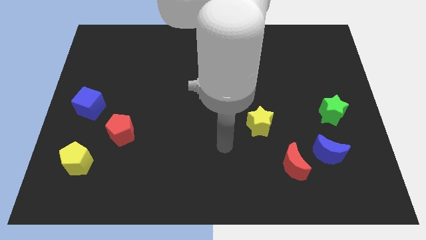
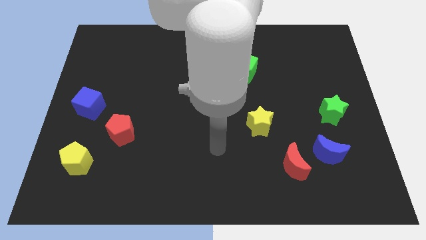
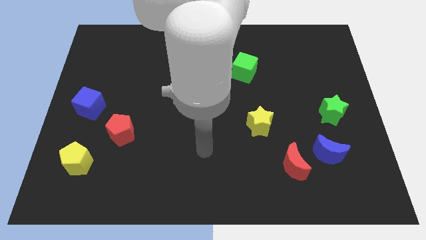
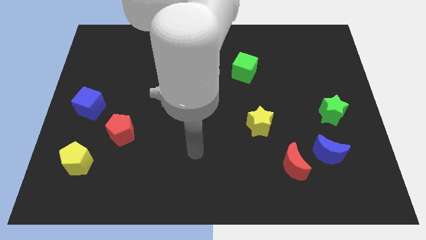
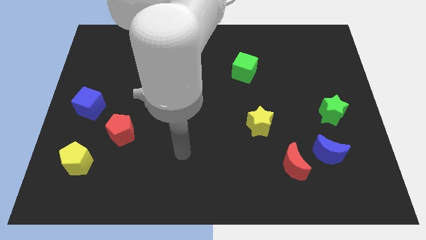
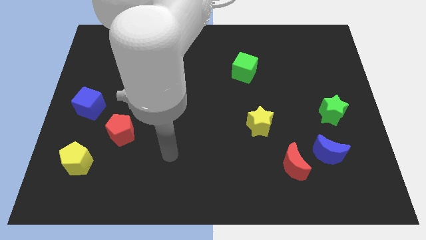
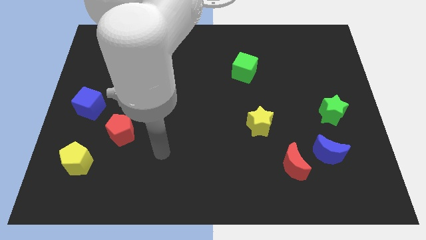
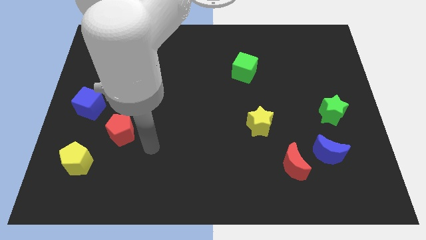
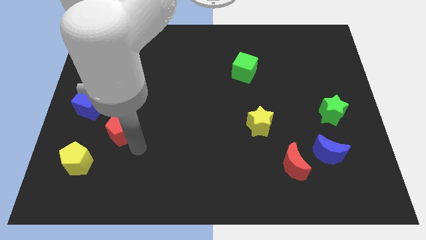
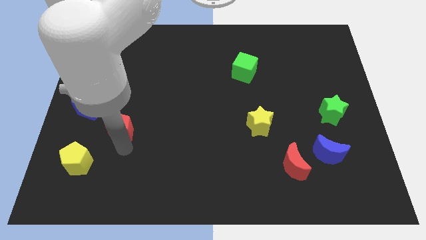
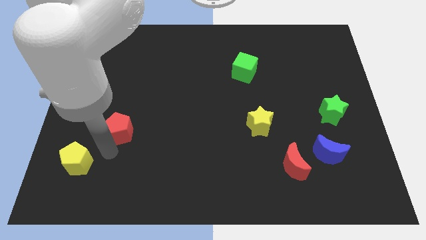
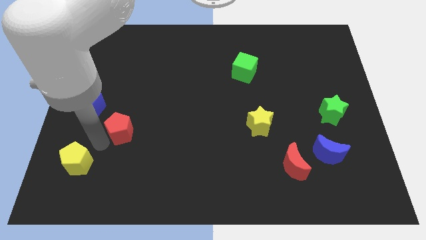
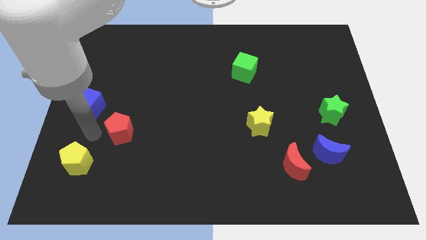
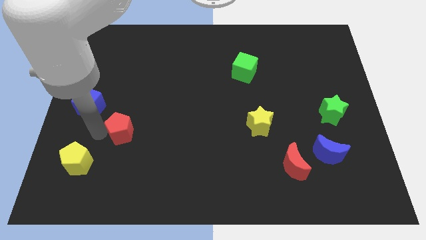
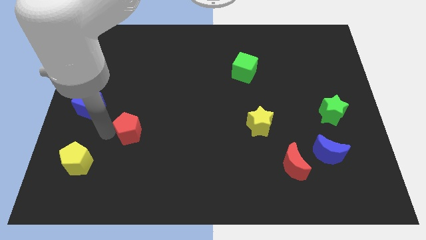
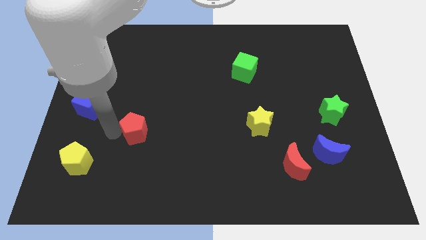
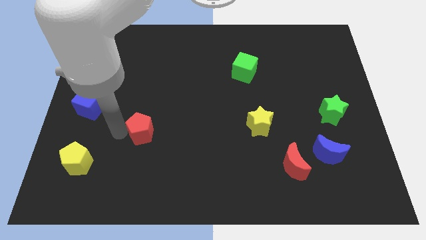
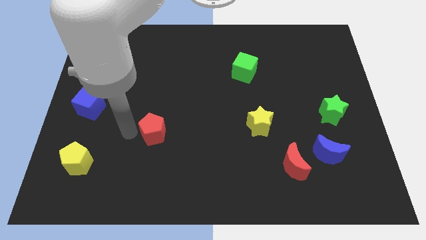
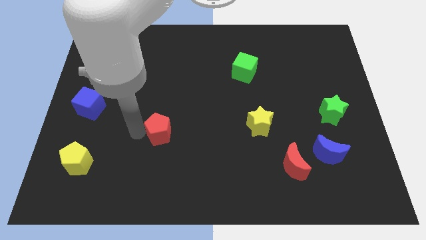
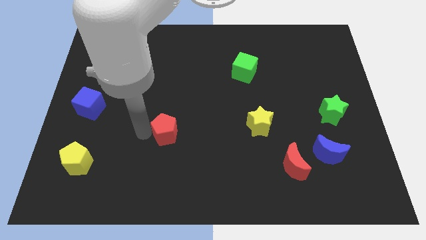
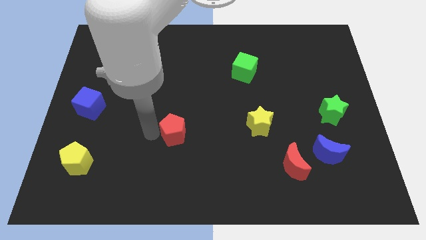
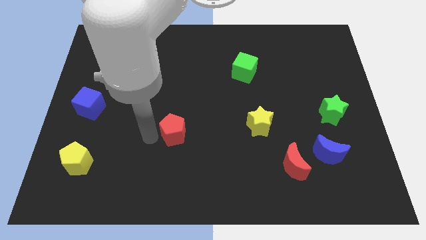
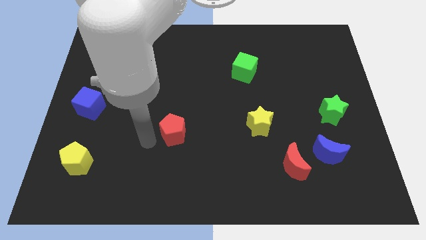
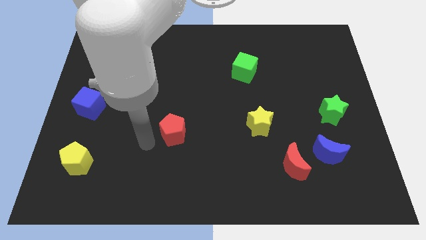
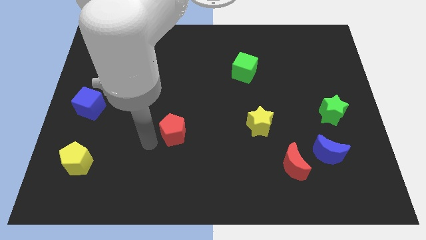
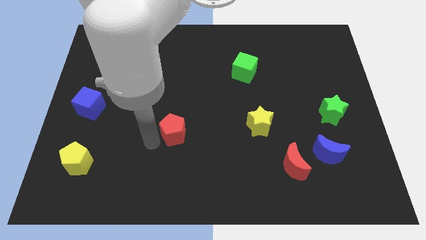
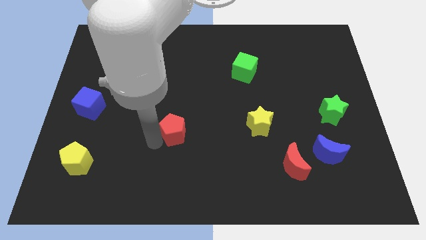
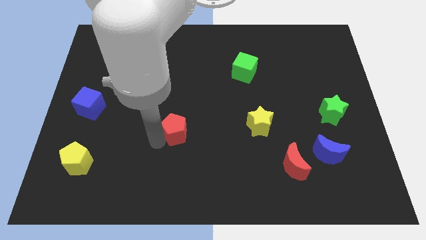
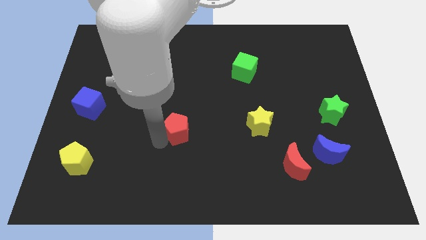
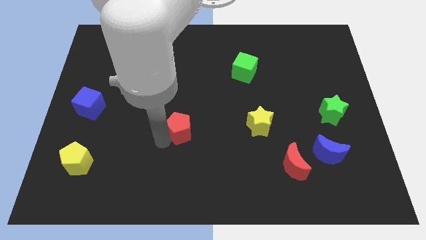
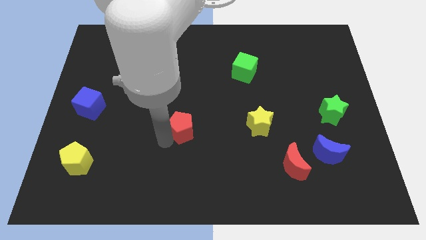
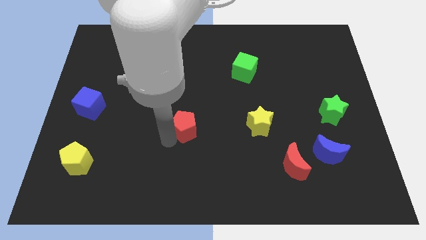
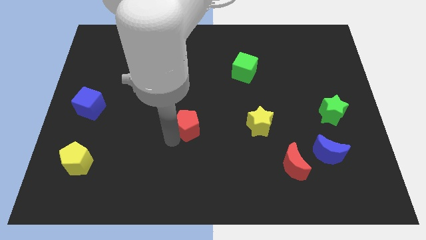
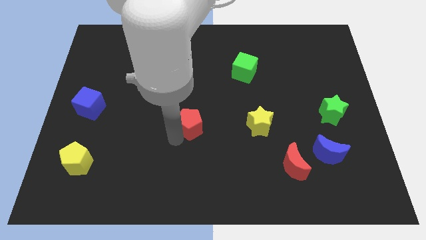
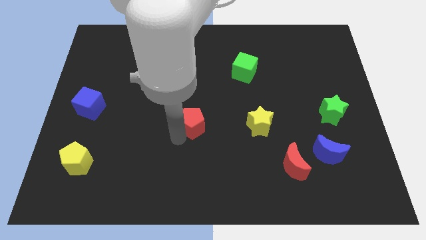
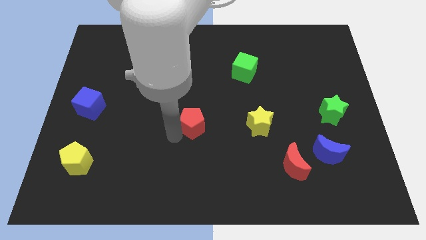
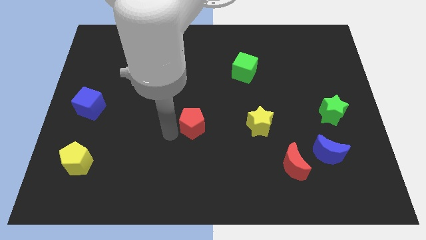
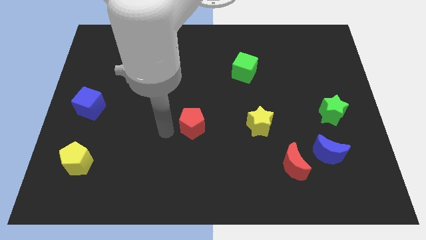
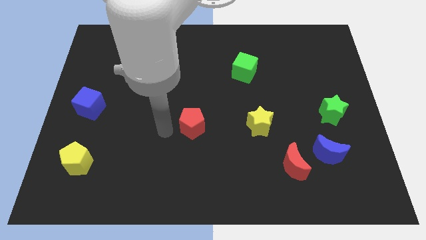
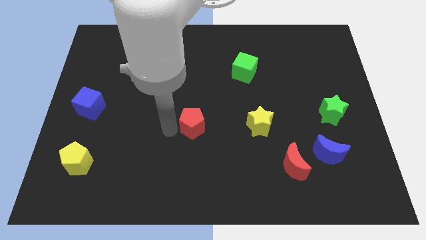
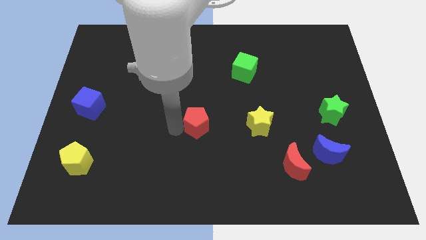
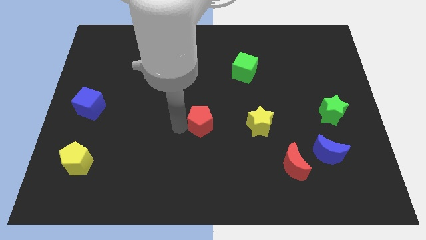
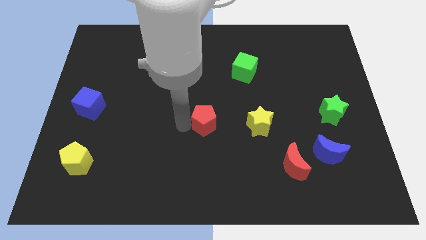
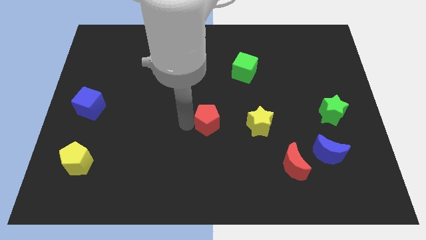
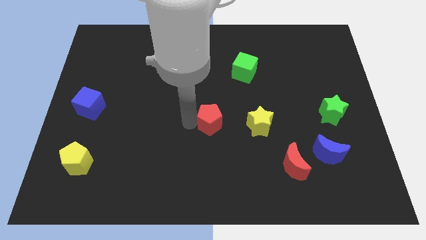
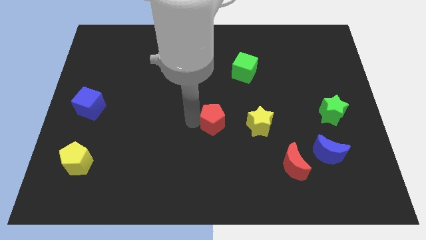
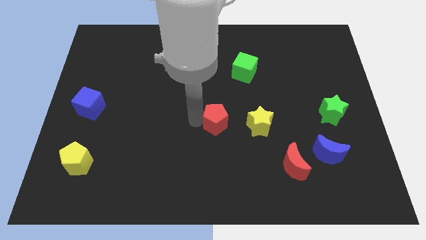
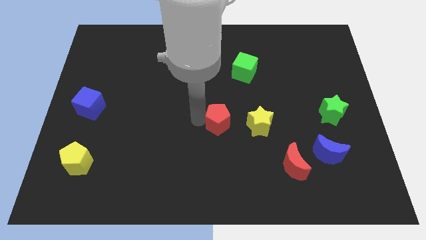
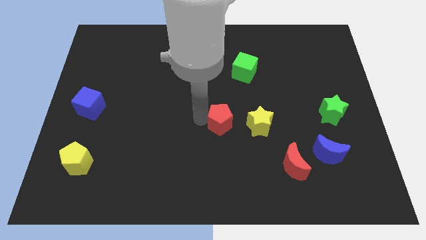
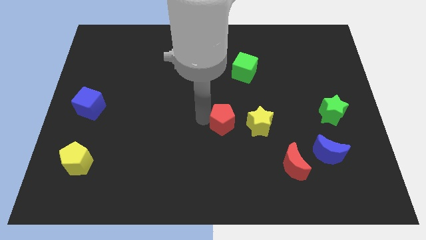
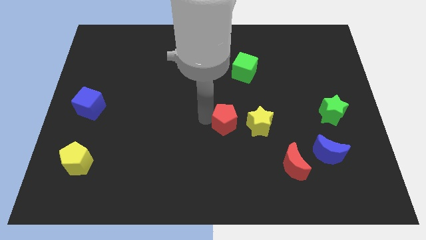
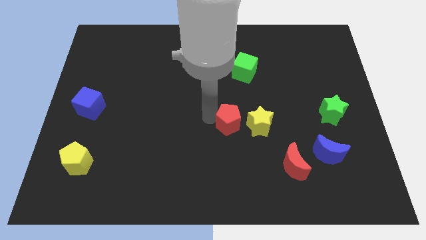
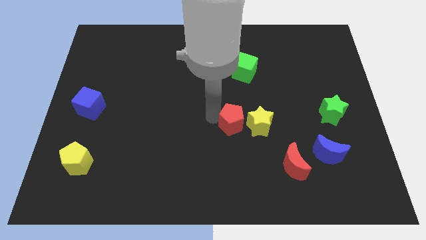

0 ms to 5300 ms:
push the red pentagon close to the yellow star

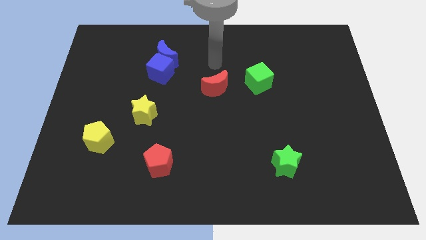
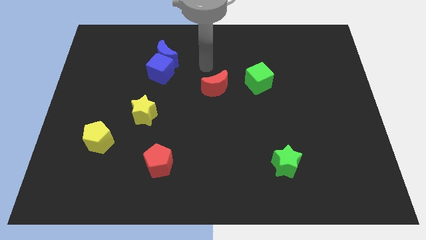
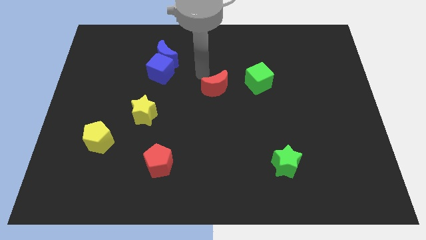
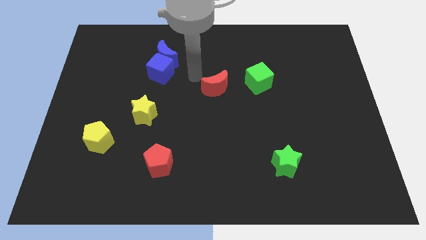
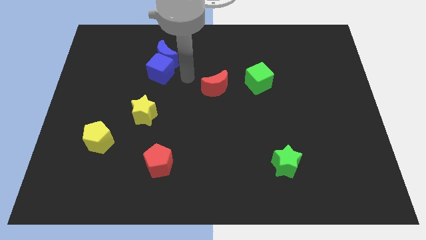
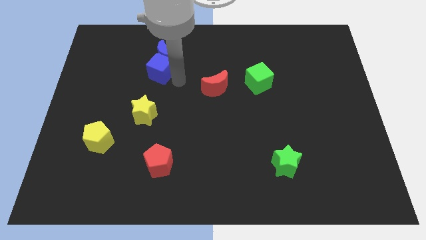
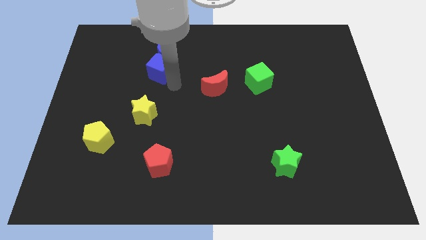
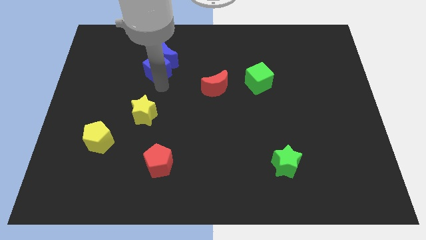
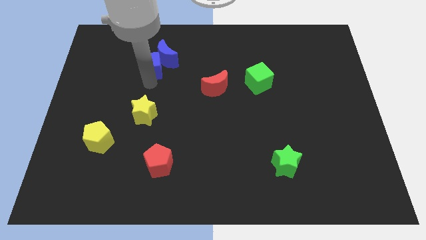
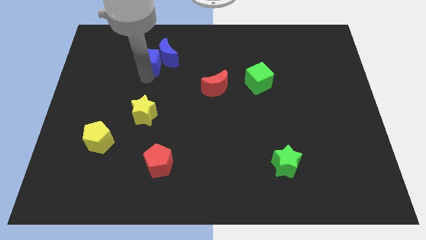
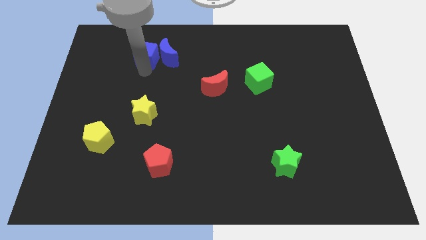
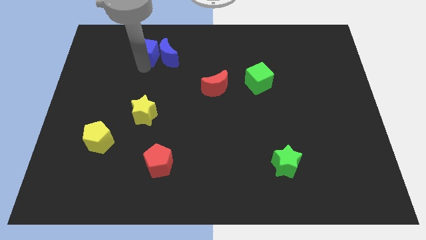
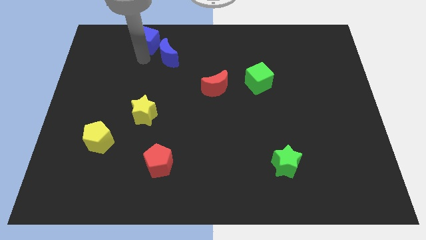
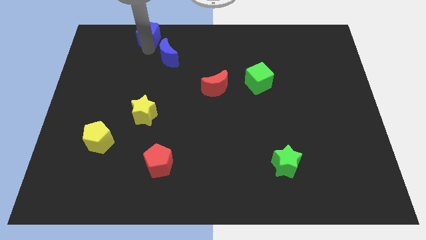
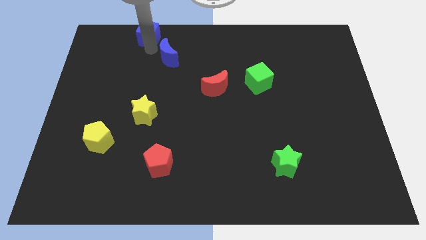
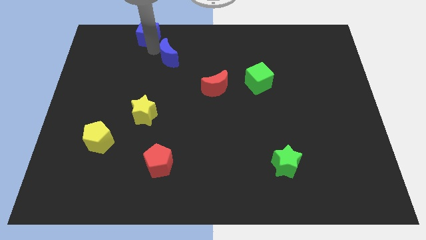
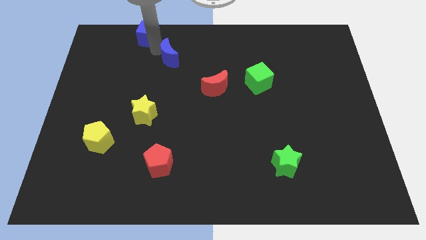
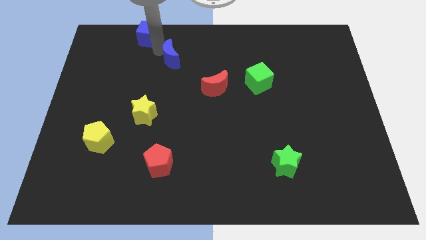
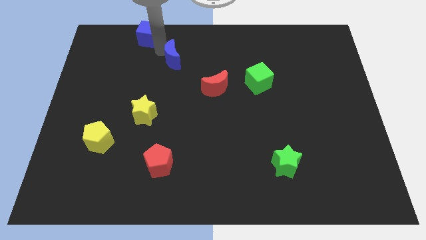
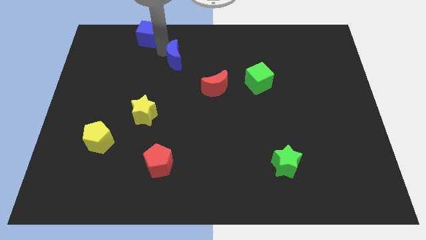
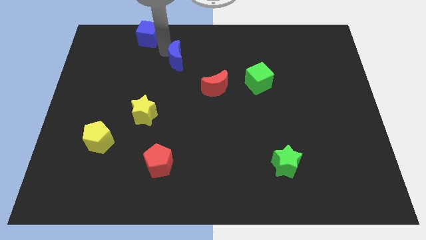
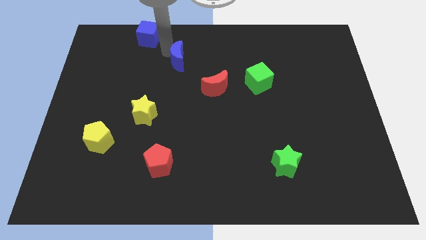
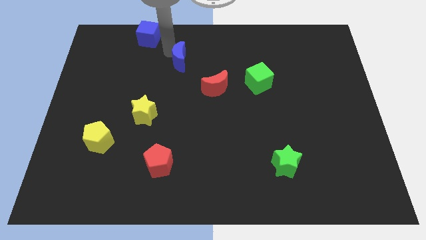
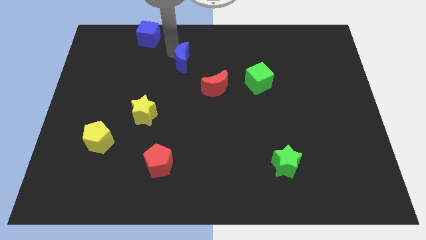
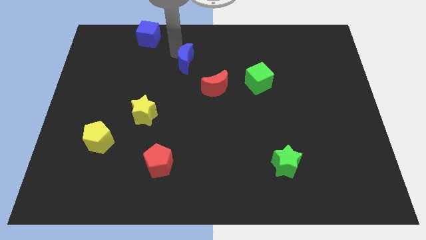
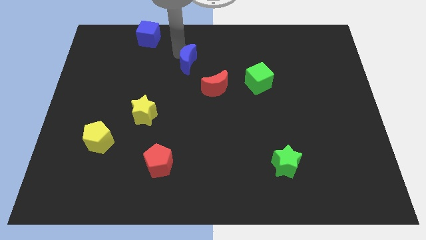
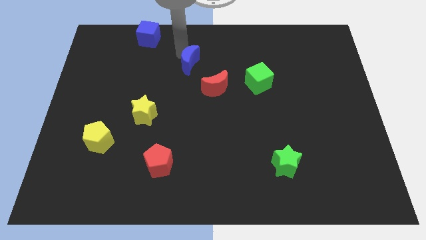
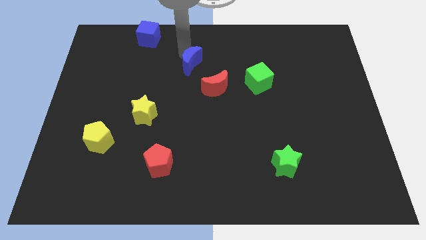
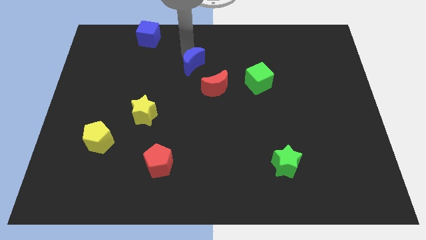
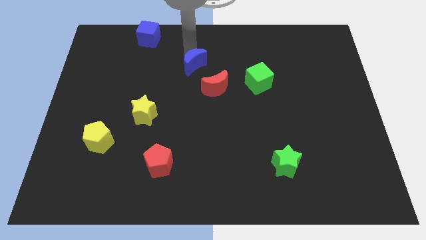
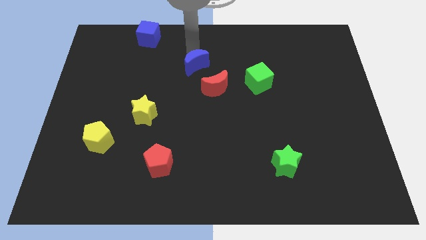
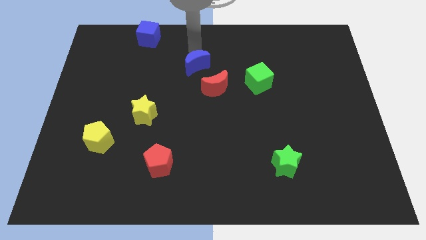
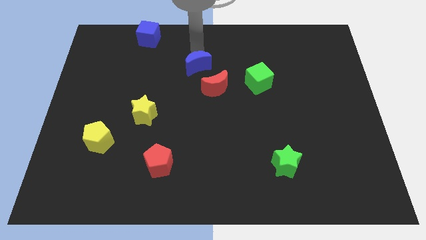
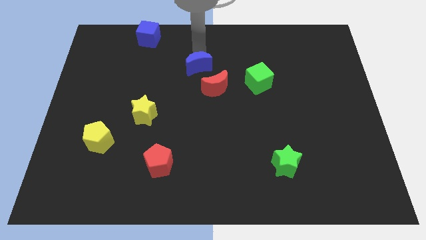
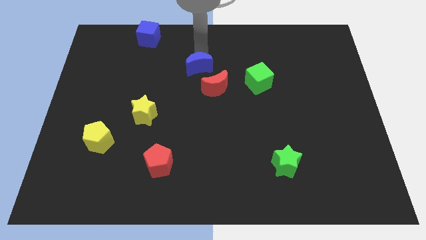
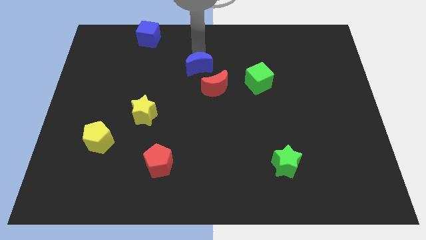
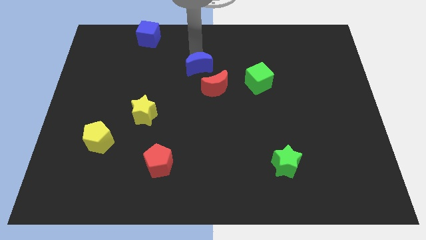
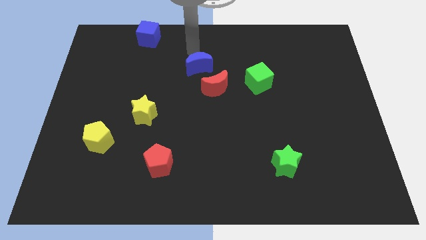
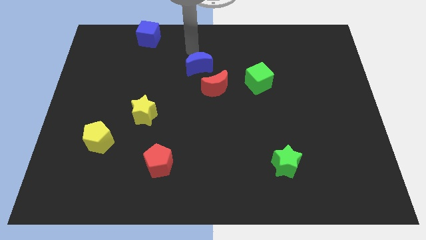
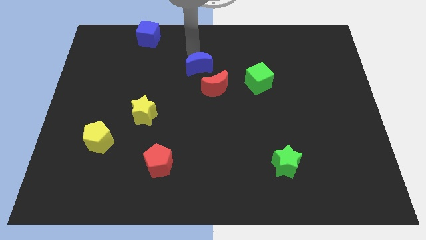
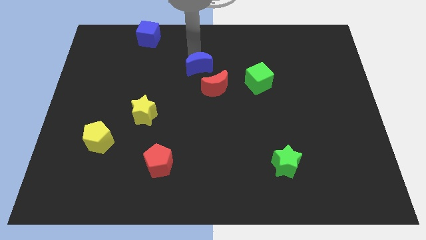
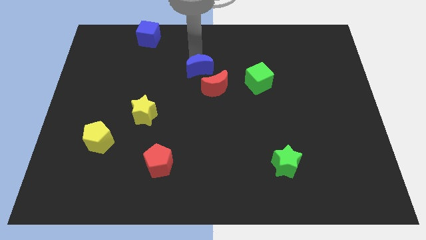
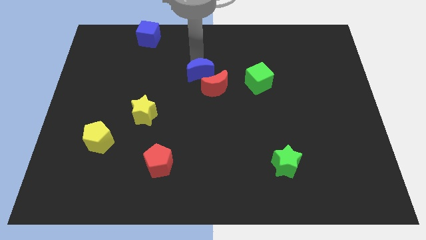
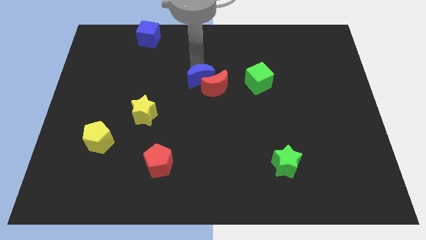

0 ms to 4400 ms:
put the blue moon close to the red moon
